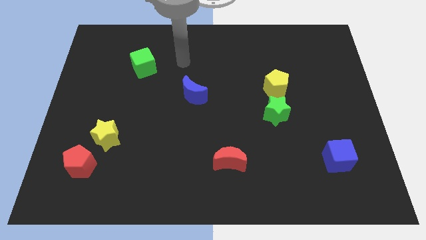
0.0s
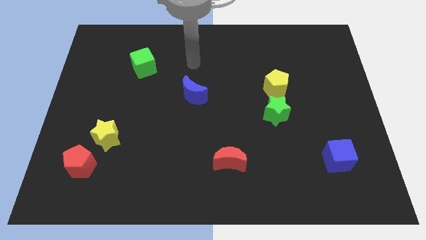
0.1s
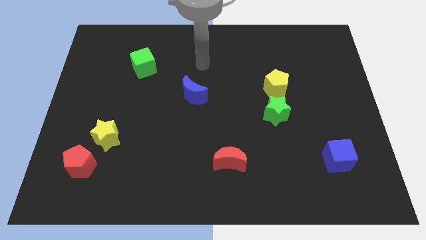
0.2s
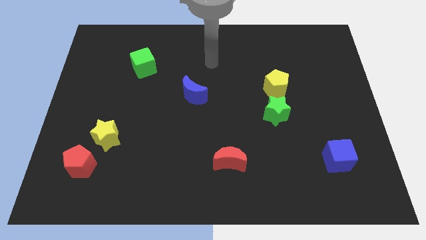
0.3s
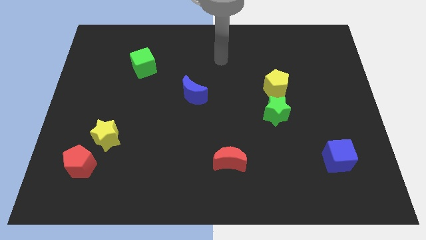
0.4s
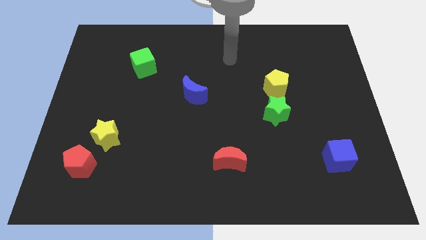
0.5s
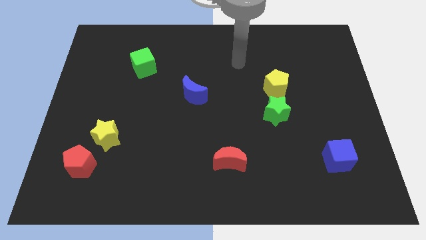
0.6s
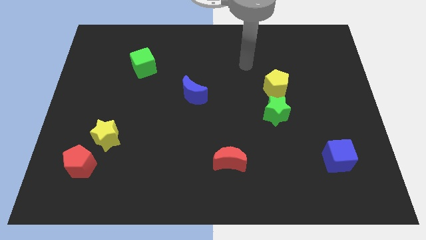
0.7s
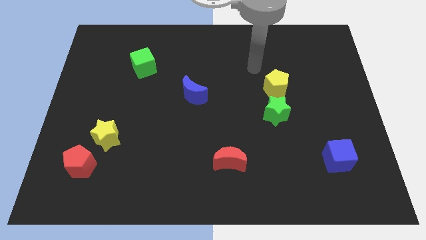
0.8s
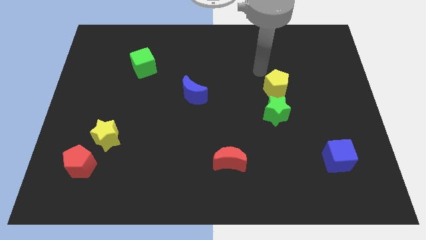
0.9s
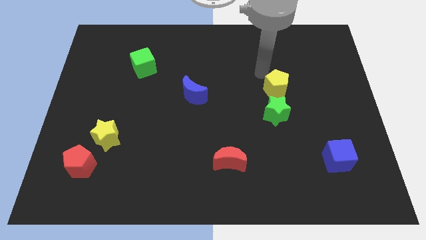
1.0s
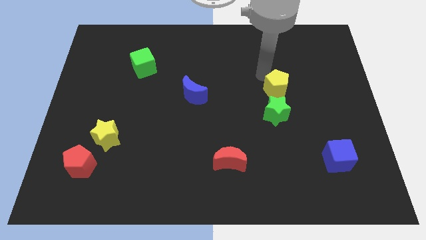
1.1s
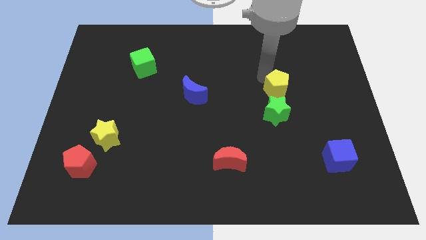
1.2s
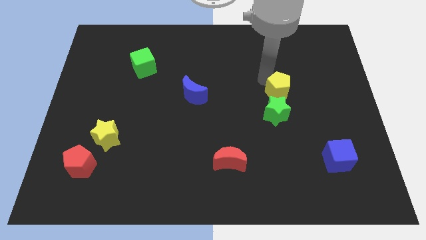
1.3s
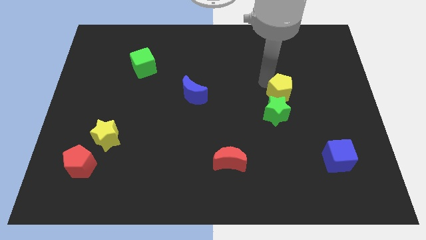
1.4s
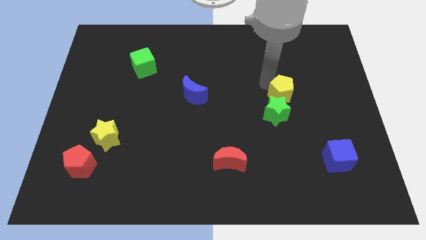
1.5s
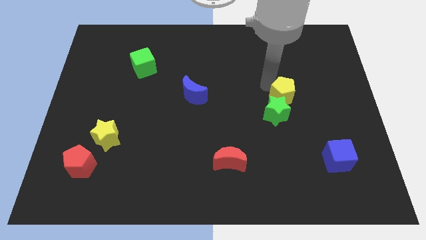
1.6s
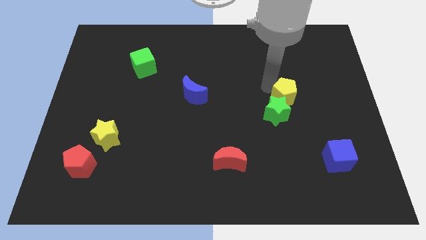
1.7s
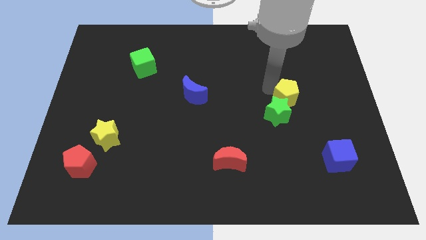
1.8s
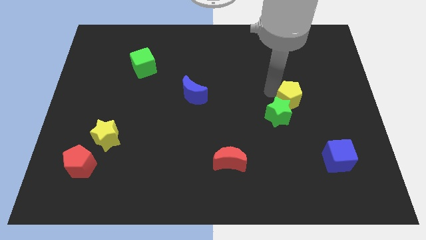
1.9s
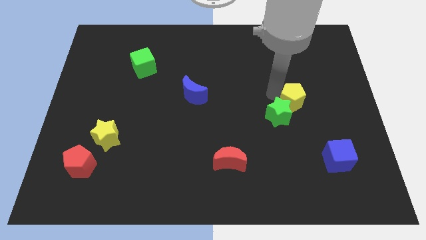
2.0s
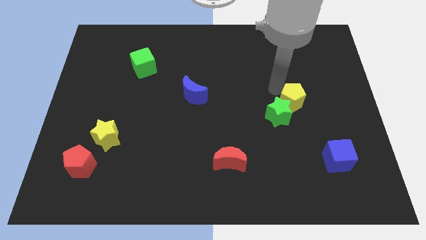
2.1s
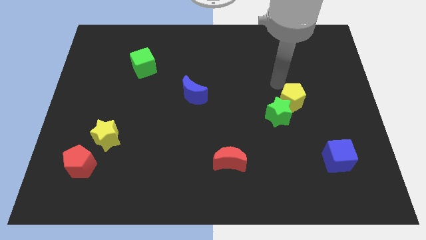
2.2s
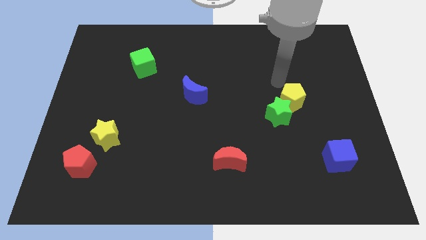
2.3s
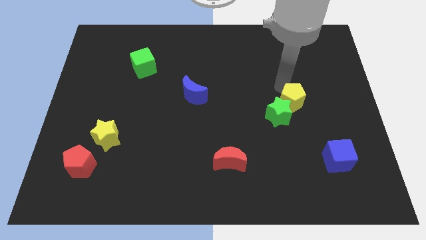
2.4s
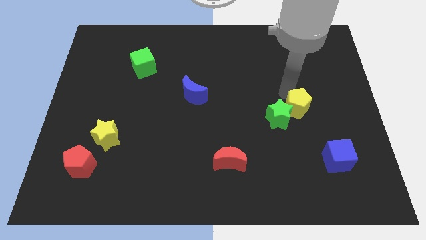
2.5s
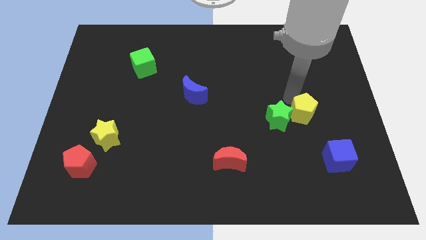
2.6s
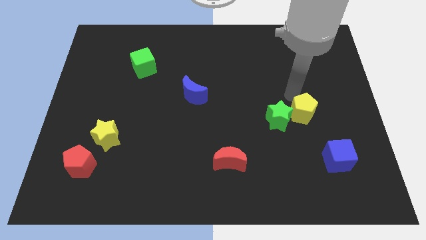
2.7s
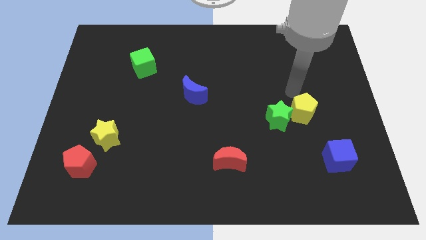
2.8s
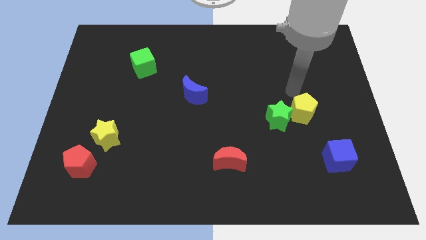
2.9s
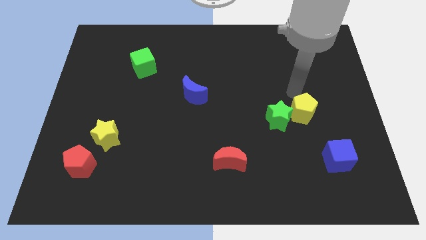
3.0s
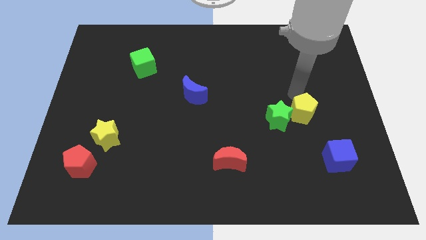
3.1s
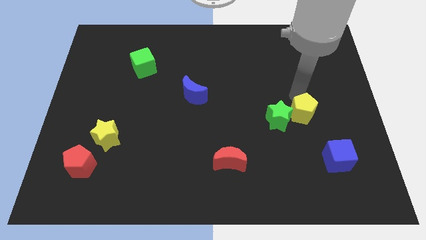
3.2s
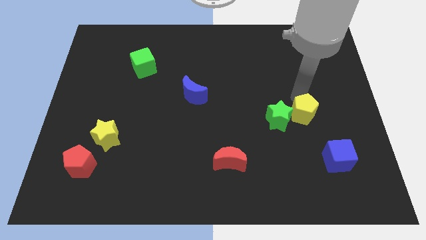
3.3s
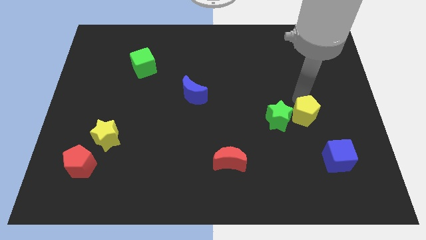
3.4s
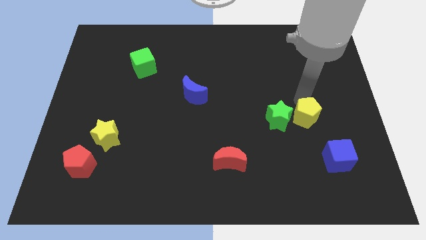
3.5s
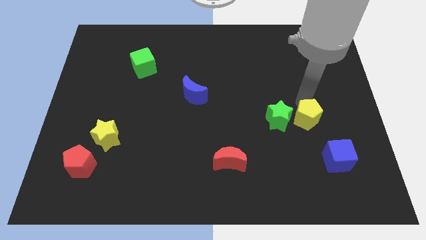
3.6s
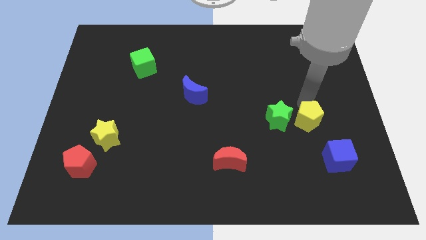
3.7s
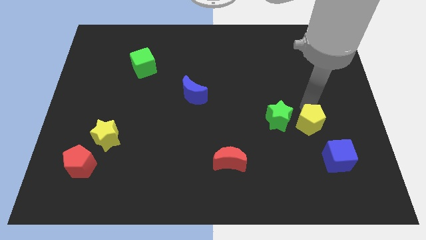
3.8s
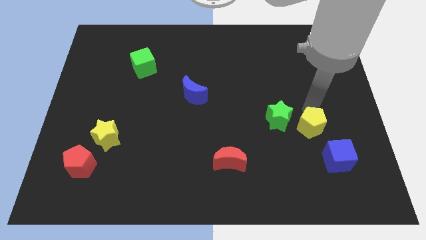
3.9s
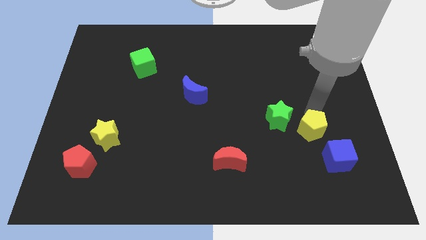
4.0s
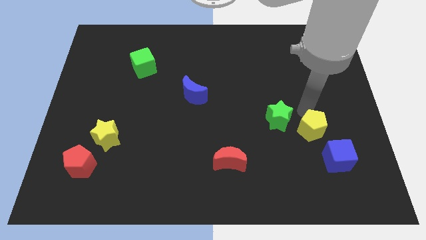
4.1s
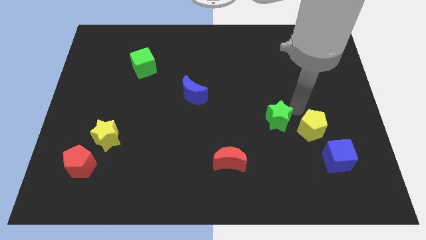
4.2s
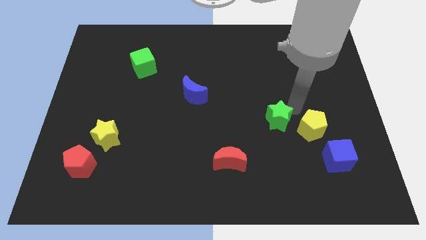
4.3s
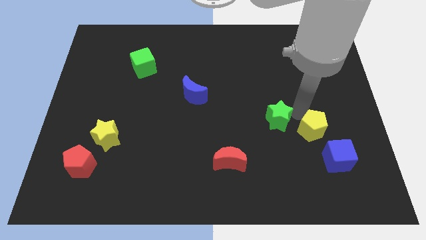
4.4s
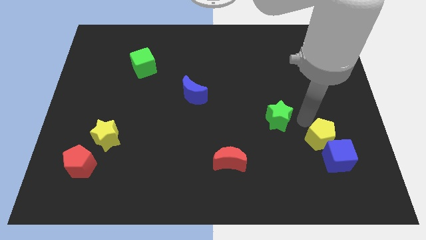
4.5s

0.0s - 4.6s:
move the yellow pentagon next to the blue cube

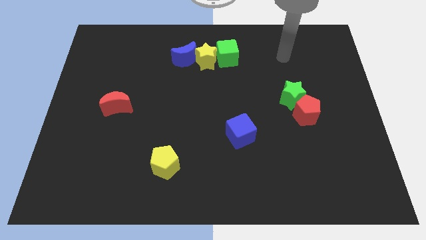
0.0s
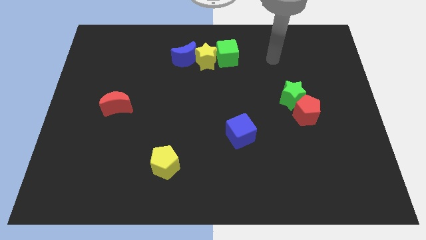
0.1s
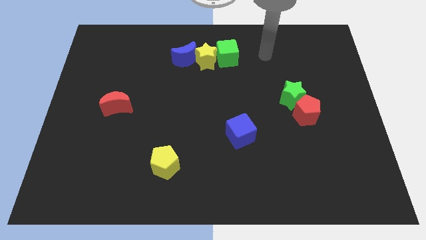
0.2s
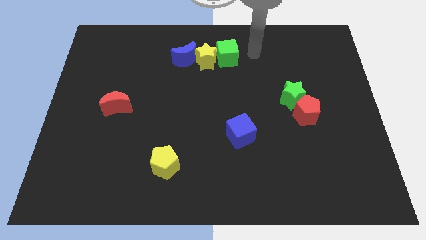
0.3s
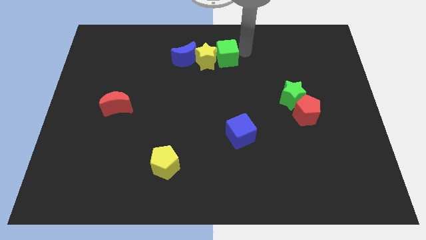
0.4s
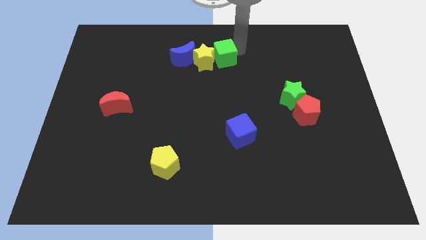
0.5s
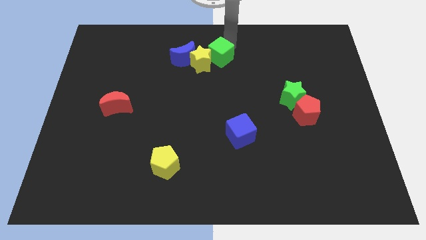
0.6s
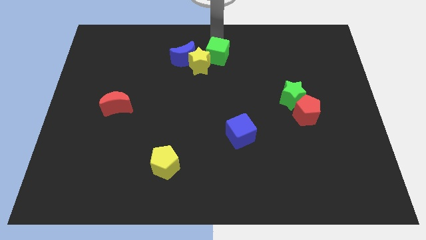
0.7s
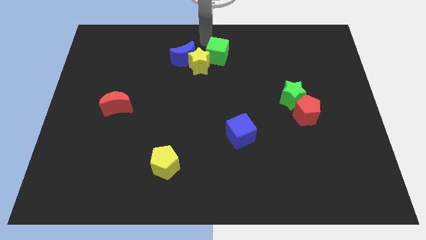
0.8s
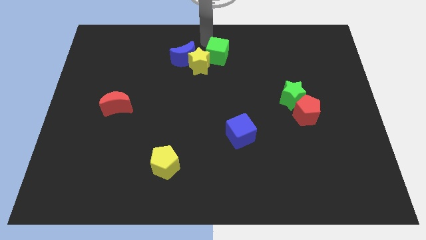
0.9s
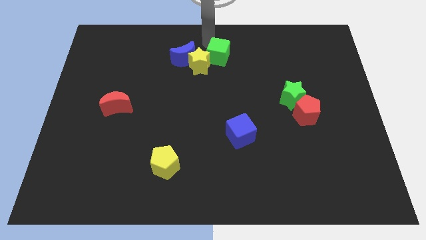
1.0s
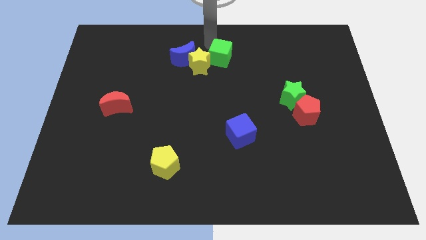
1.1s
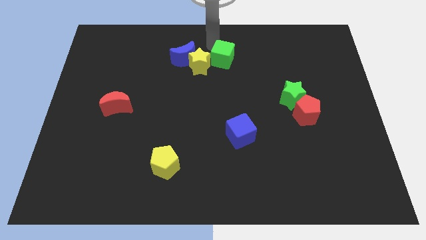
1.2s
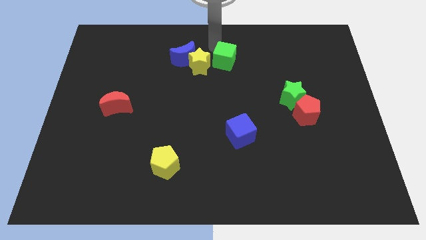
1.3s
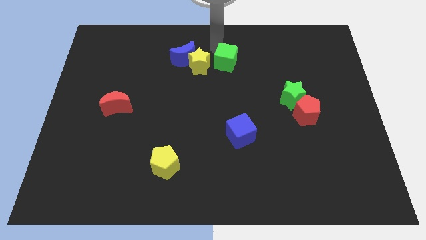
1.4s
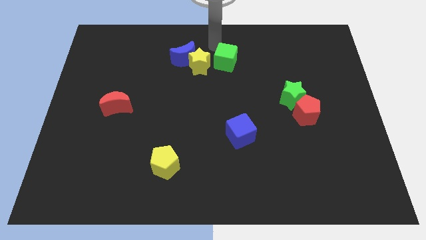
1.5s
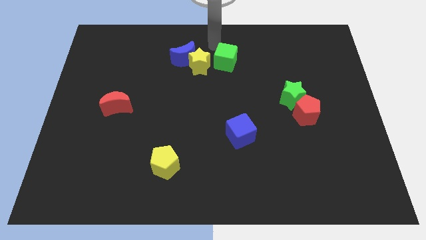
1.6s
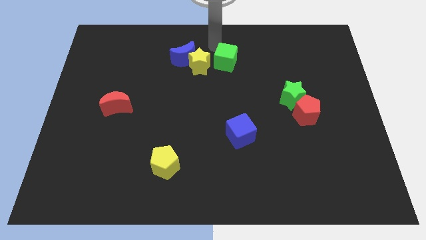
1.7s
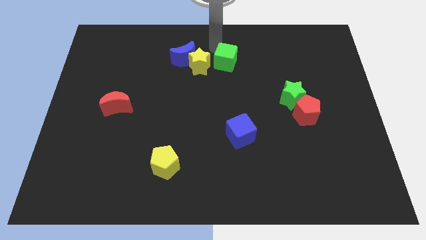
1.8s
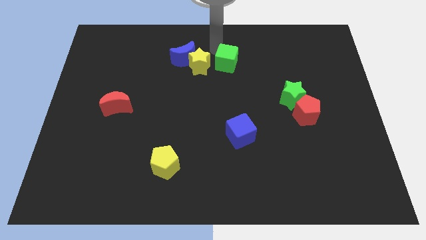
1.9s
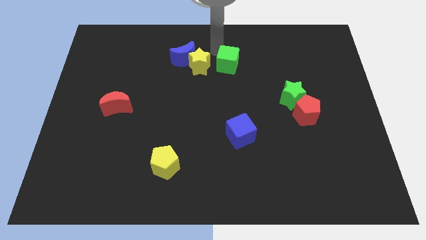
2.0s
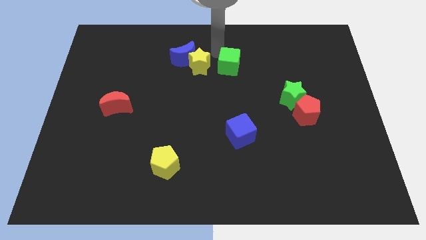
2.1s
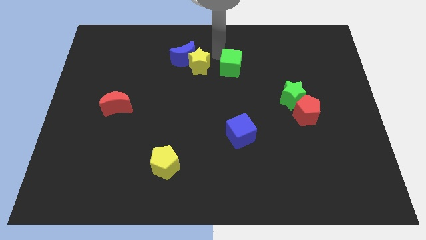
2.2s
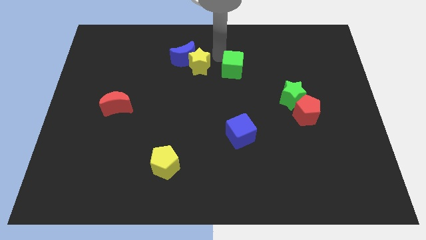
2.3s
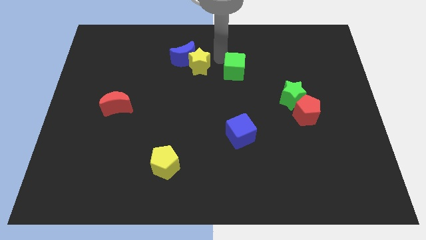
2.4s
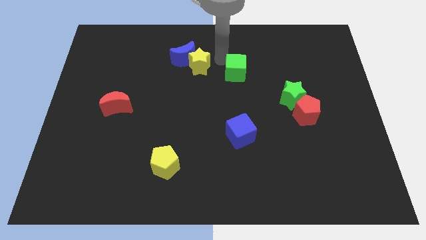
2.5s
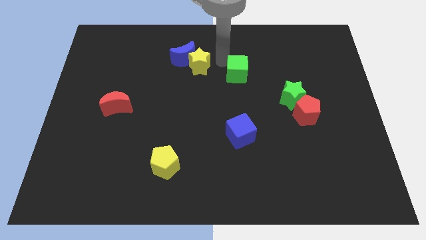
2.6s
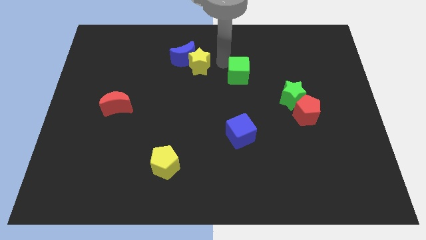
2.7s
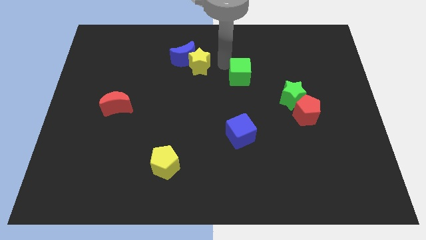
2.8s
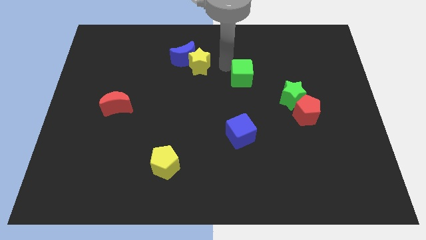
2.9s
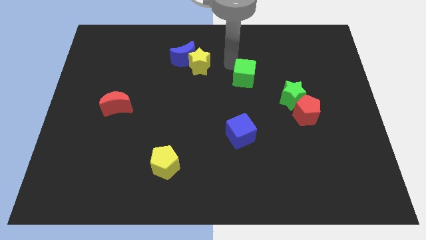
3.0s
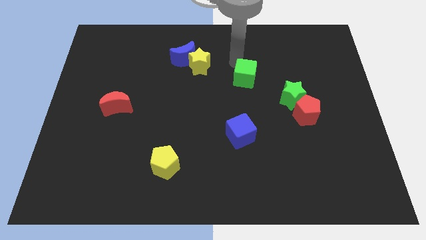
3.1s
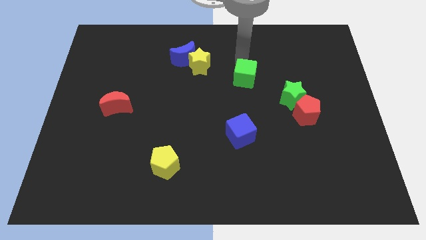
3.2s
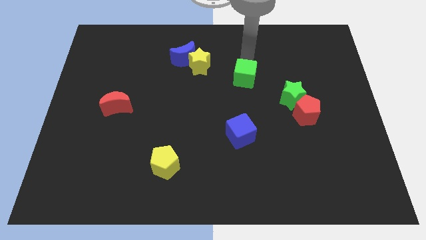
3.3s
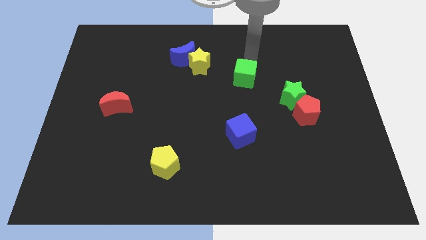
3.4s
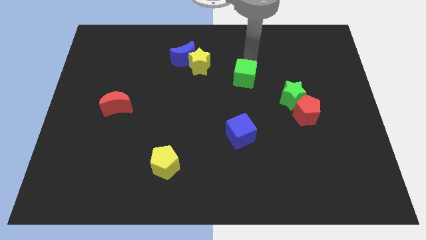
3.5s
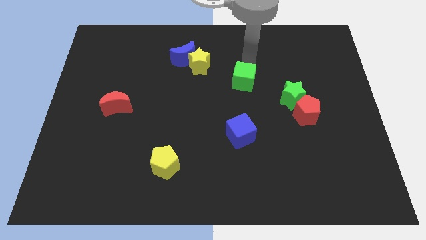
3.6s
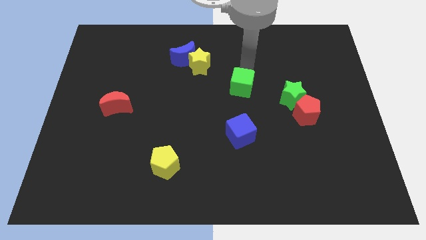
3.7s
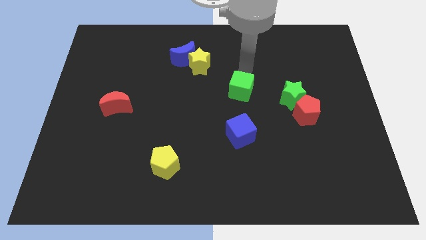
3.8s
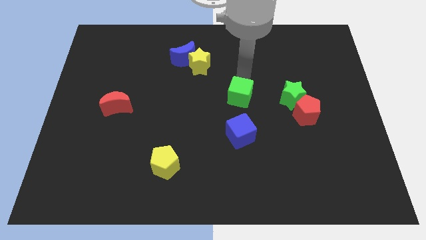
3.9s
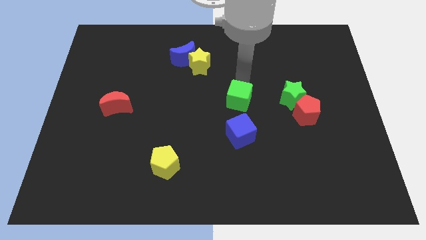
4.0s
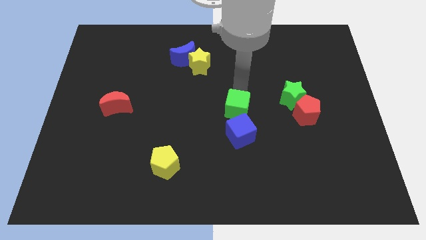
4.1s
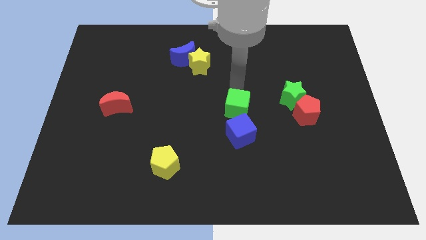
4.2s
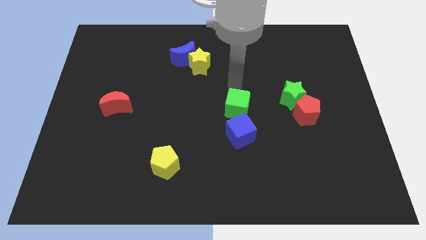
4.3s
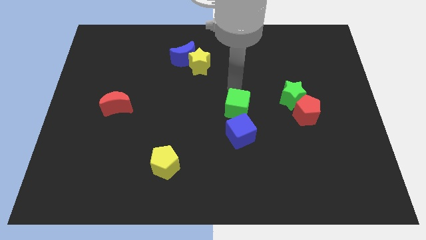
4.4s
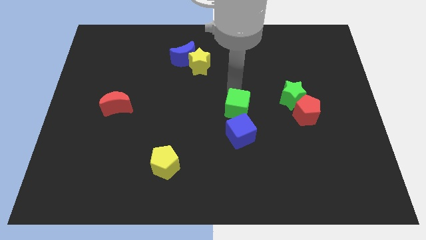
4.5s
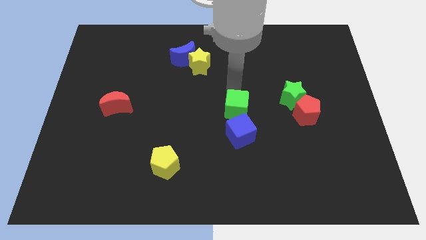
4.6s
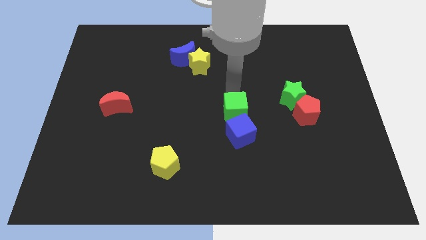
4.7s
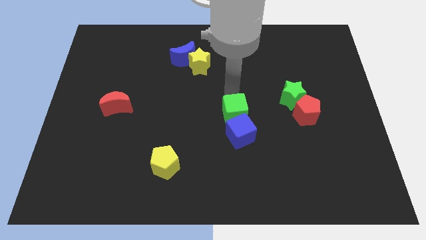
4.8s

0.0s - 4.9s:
slide the green cube close to the blue cube
